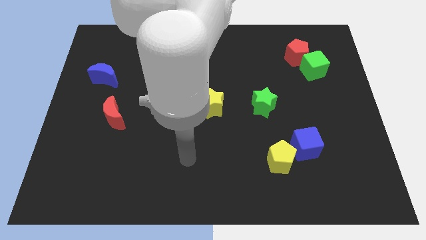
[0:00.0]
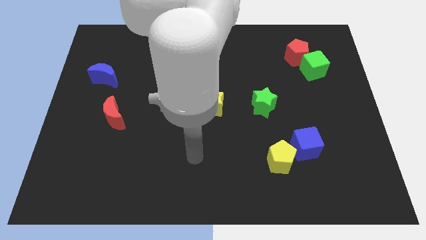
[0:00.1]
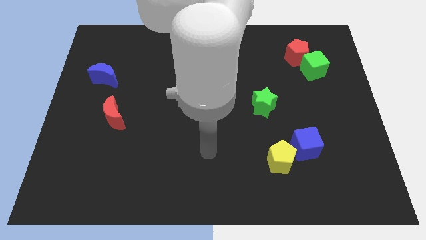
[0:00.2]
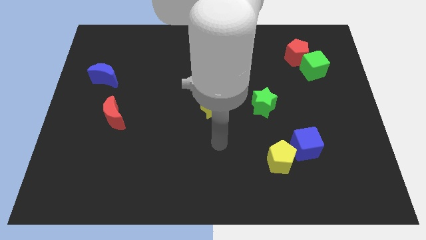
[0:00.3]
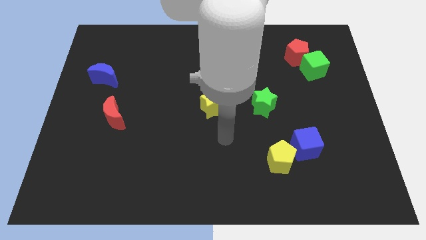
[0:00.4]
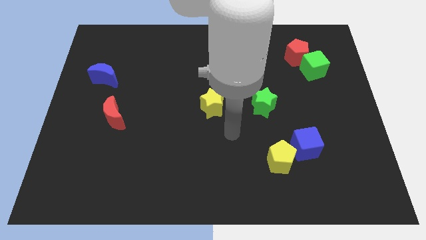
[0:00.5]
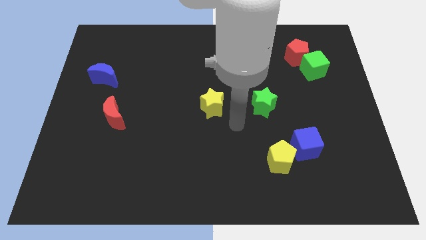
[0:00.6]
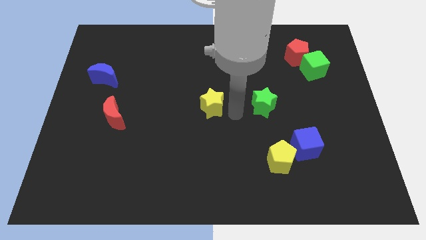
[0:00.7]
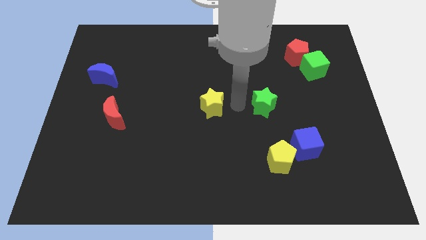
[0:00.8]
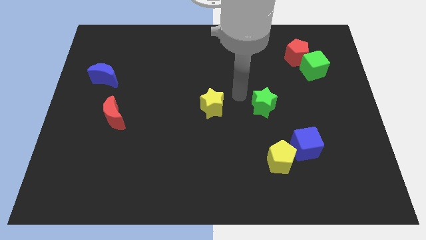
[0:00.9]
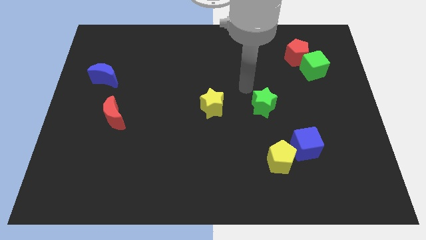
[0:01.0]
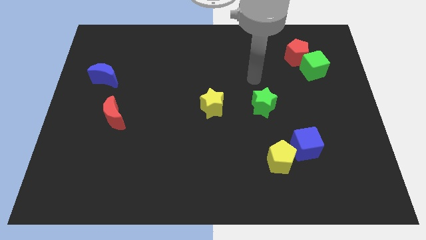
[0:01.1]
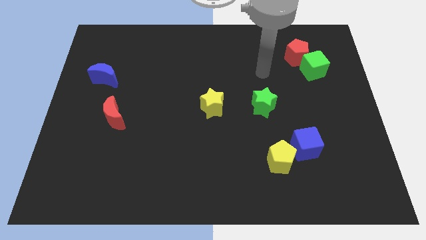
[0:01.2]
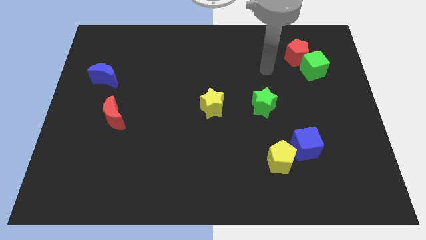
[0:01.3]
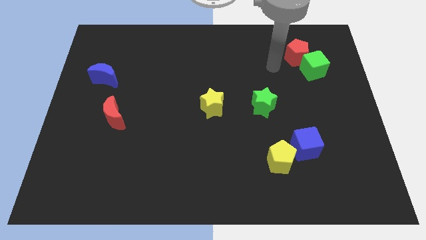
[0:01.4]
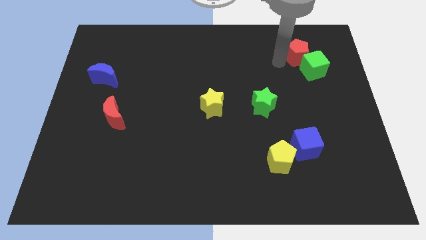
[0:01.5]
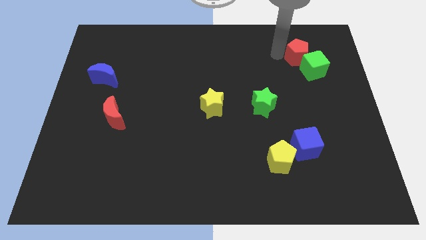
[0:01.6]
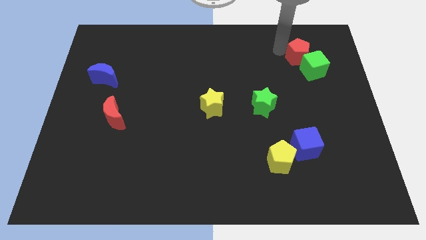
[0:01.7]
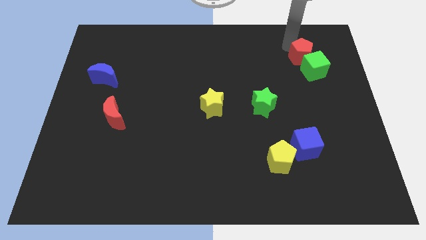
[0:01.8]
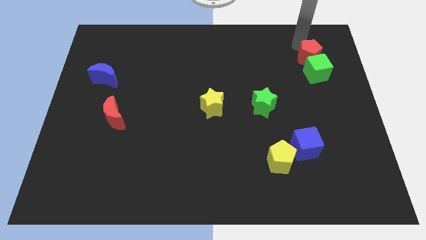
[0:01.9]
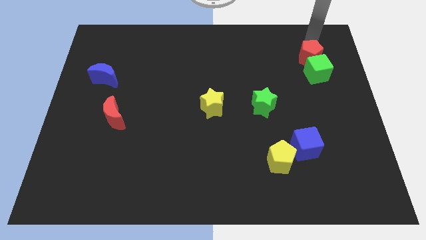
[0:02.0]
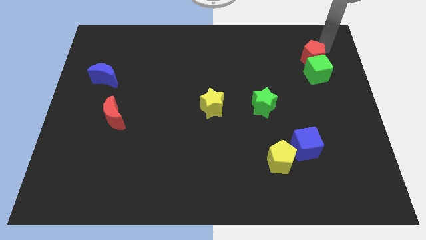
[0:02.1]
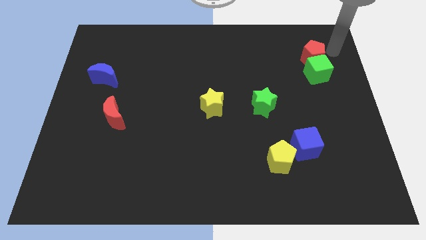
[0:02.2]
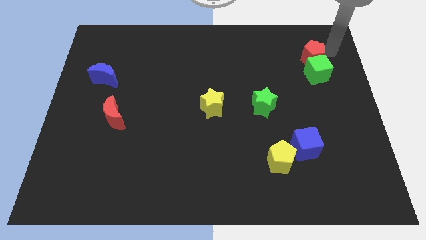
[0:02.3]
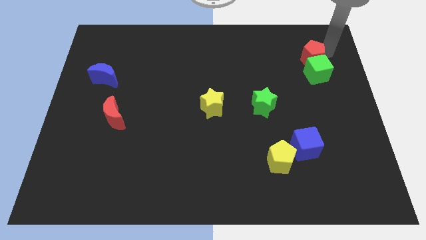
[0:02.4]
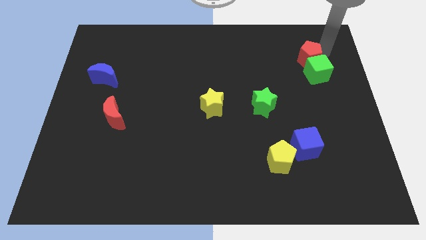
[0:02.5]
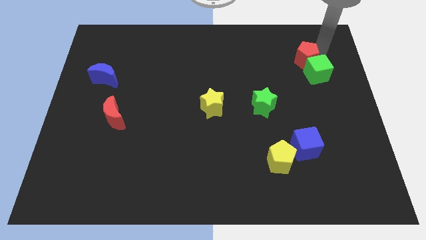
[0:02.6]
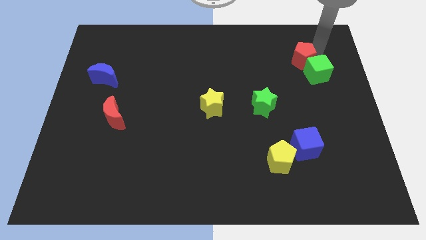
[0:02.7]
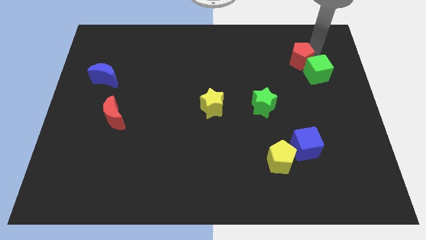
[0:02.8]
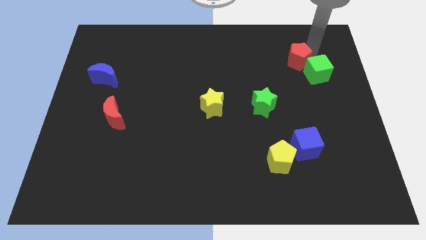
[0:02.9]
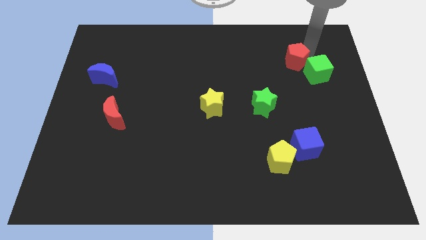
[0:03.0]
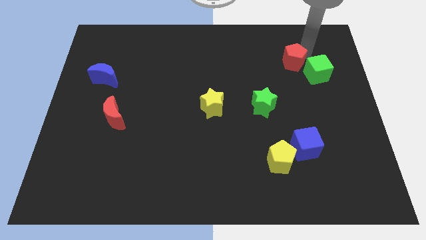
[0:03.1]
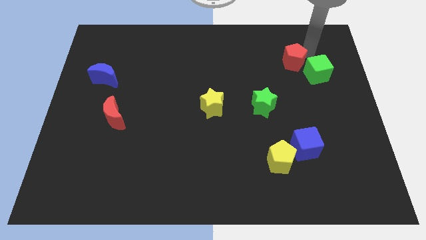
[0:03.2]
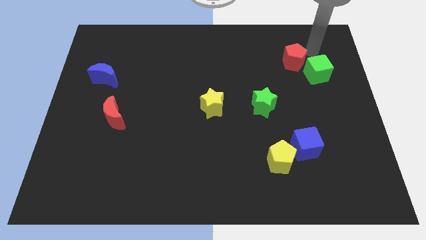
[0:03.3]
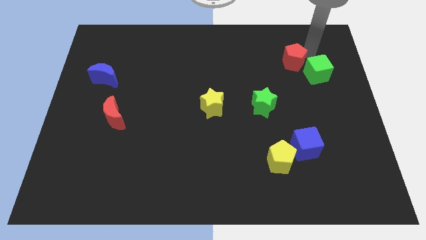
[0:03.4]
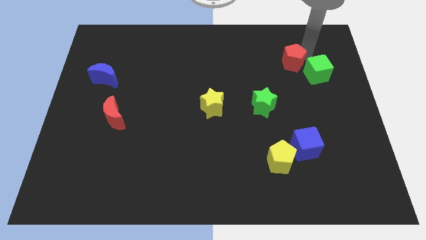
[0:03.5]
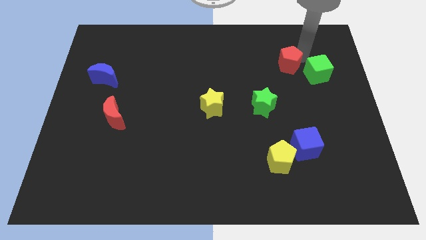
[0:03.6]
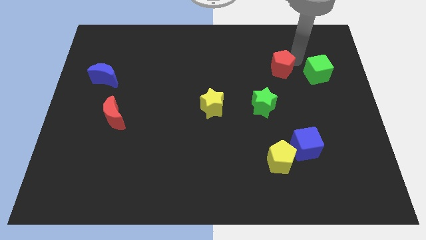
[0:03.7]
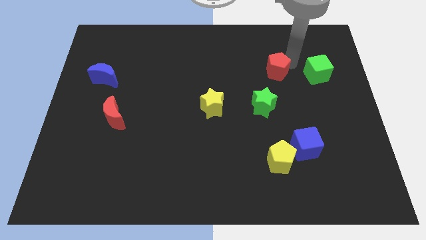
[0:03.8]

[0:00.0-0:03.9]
move the red pentagon somewhat diagonally downwards and left

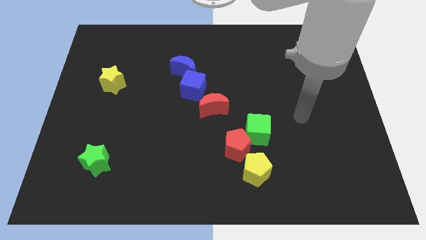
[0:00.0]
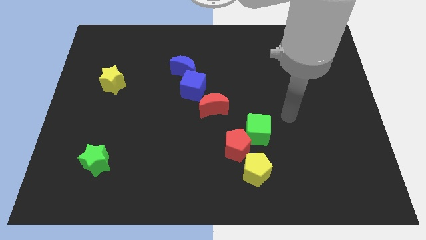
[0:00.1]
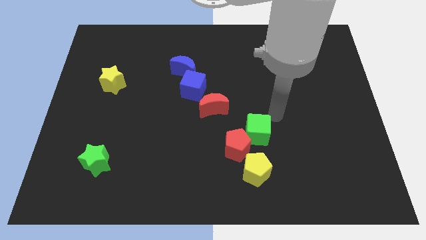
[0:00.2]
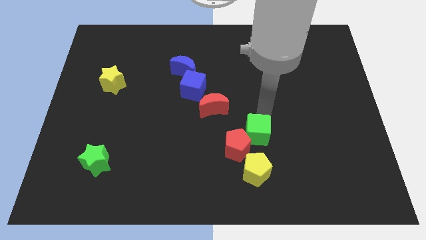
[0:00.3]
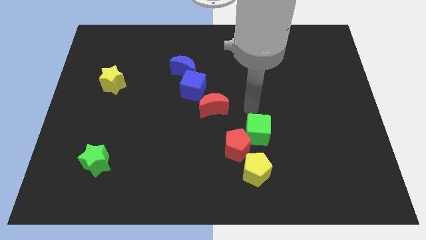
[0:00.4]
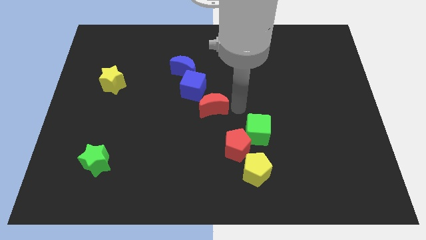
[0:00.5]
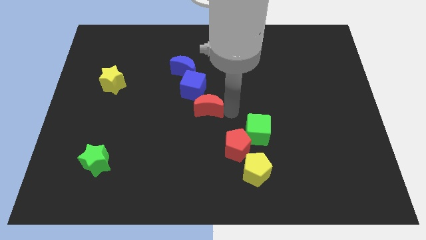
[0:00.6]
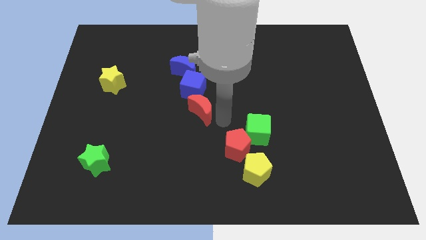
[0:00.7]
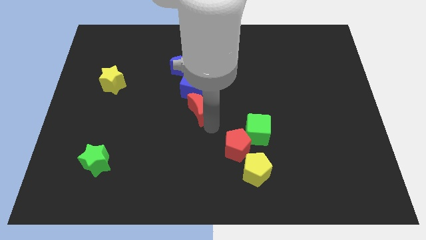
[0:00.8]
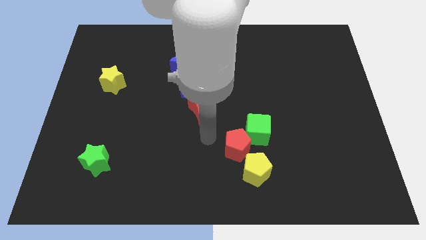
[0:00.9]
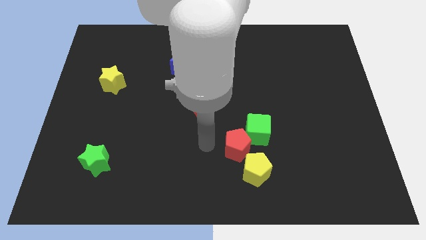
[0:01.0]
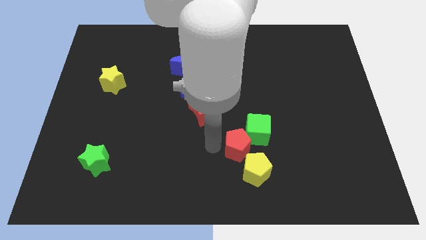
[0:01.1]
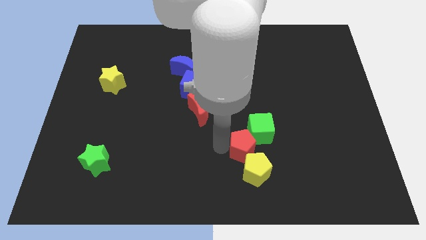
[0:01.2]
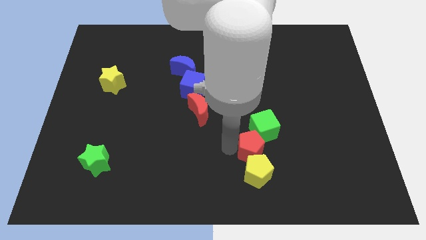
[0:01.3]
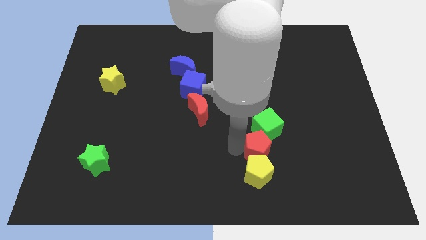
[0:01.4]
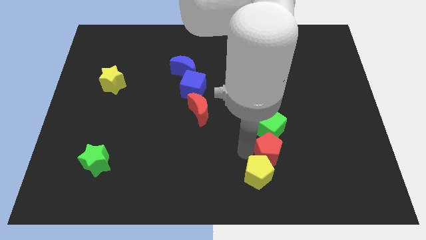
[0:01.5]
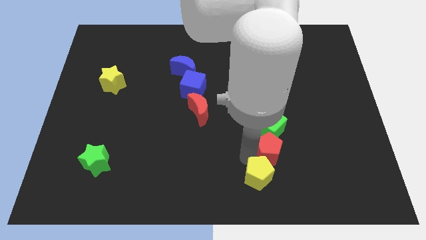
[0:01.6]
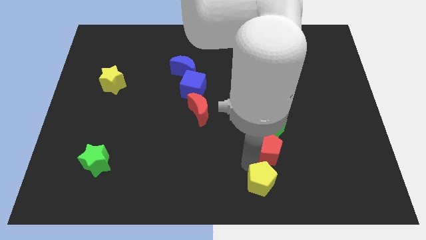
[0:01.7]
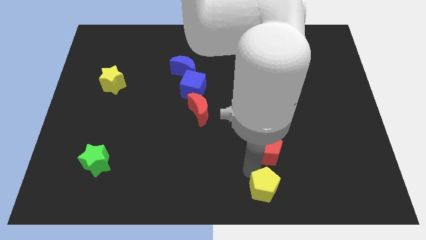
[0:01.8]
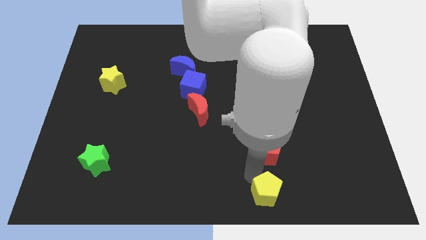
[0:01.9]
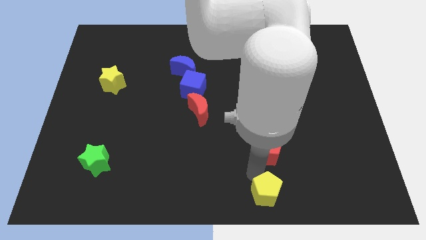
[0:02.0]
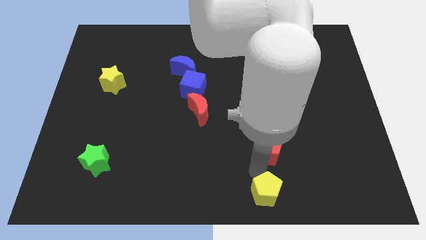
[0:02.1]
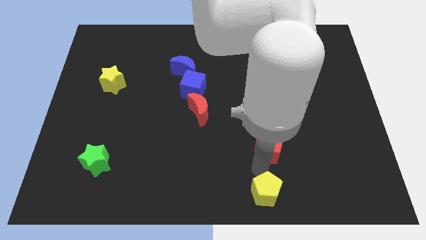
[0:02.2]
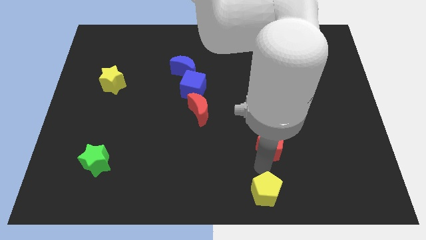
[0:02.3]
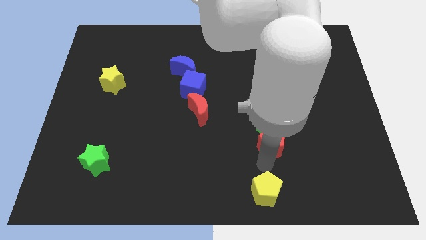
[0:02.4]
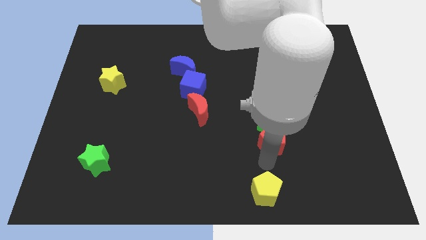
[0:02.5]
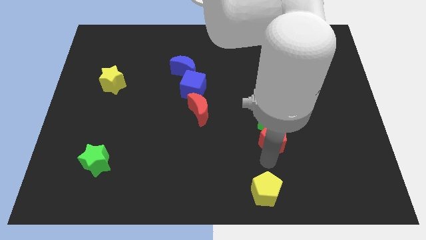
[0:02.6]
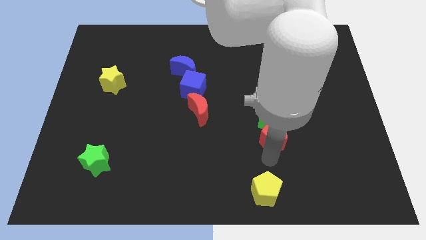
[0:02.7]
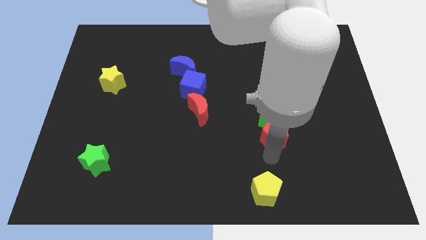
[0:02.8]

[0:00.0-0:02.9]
push the red pentagon up and right diagonally a little bit

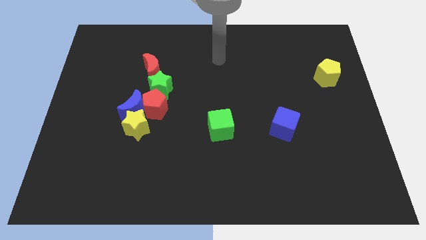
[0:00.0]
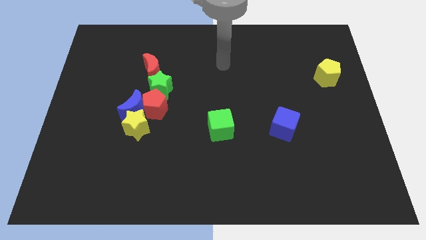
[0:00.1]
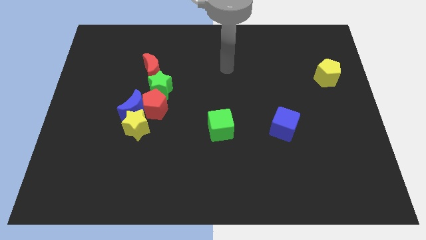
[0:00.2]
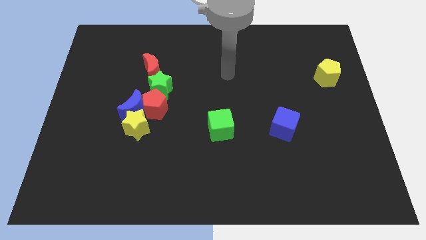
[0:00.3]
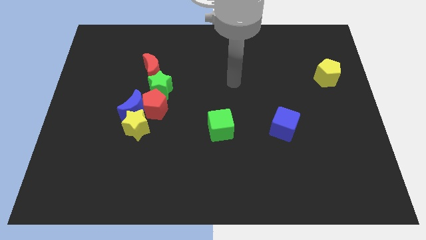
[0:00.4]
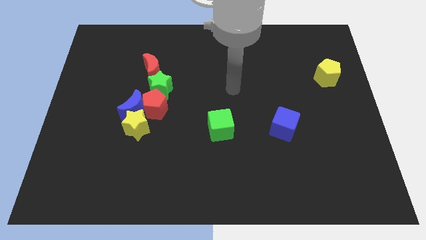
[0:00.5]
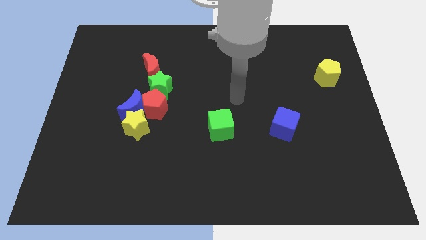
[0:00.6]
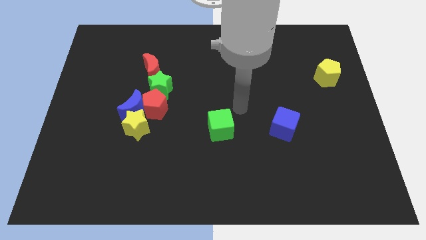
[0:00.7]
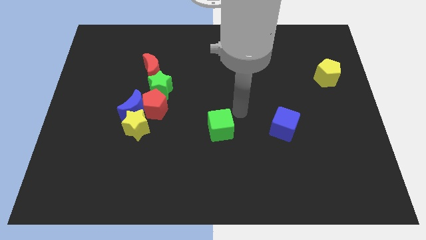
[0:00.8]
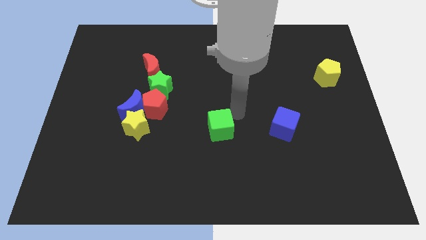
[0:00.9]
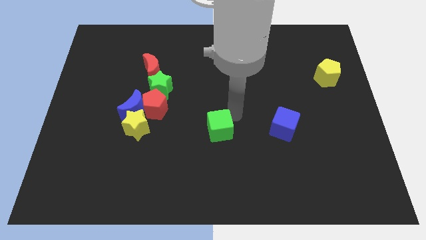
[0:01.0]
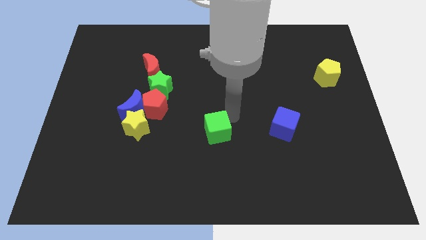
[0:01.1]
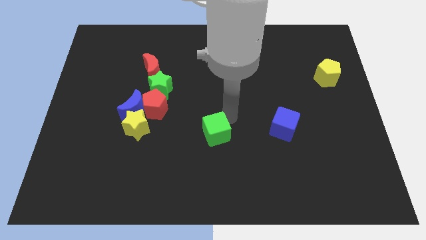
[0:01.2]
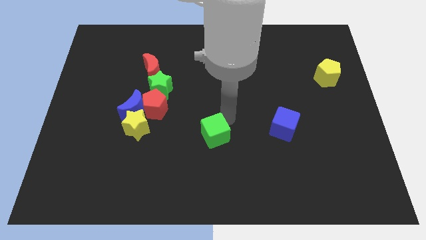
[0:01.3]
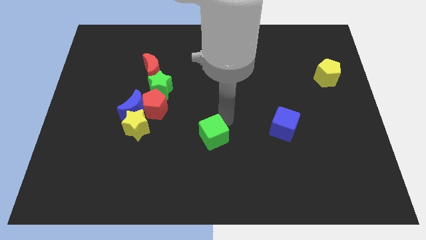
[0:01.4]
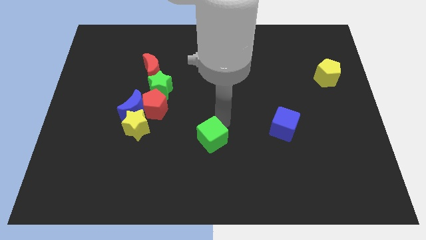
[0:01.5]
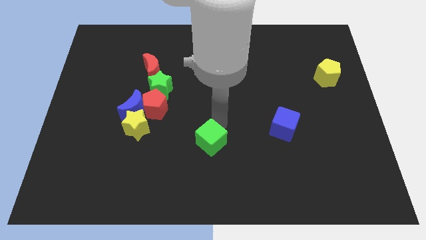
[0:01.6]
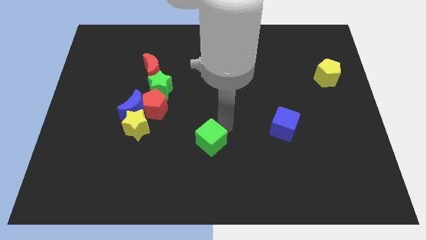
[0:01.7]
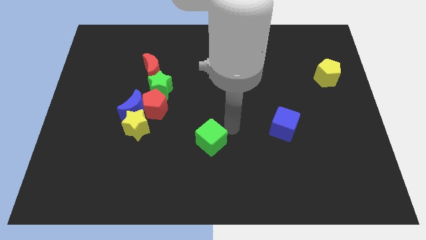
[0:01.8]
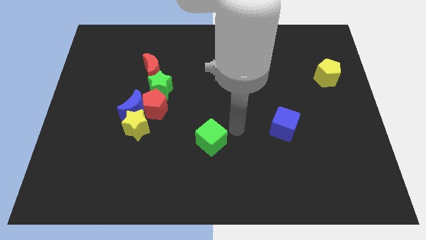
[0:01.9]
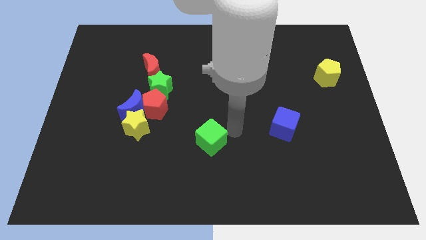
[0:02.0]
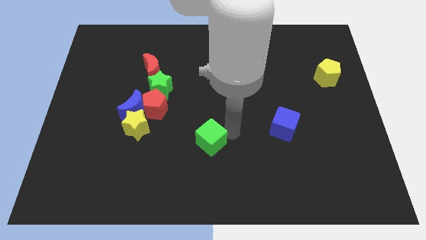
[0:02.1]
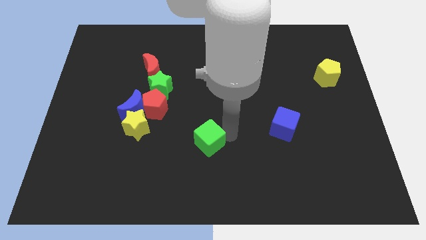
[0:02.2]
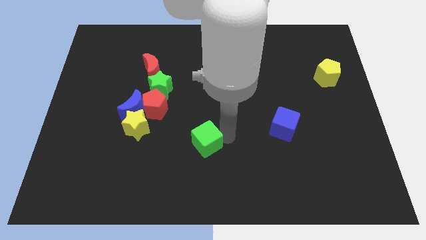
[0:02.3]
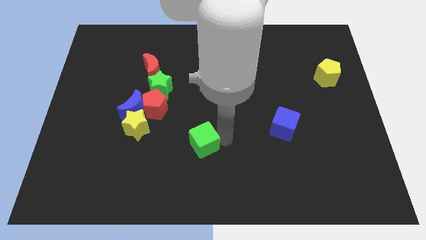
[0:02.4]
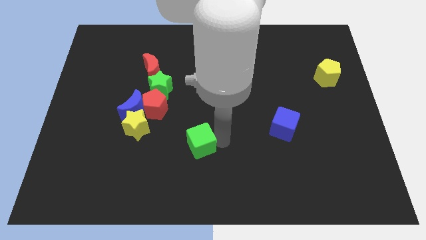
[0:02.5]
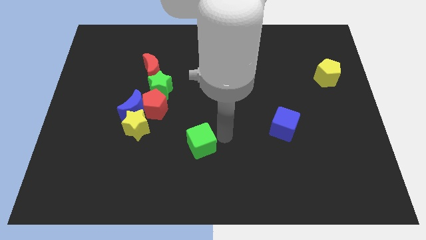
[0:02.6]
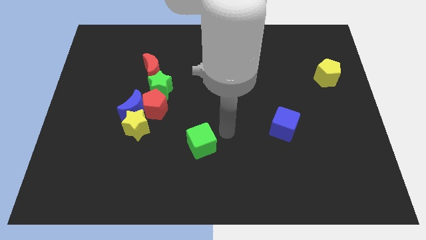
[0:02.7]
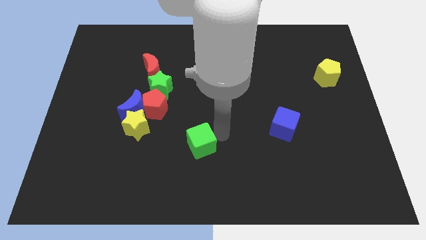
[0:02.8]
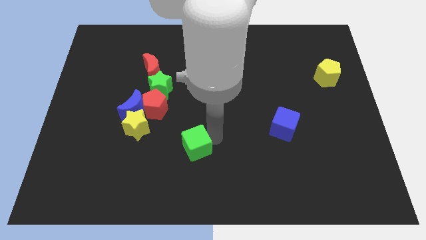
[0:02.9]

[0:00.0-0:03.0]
slightly push the green cube diagonally downwards and left
